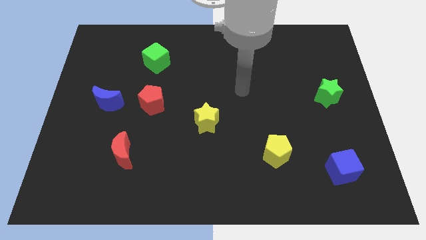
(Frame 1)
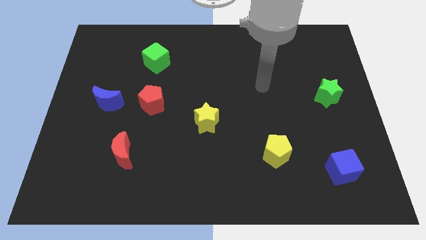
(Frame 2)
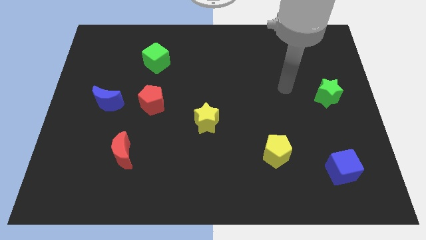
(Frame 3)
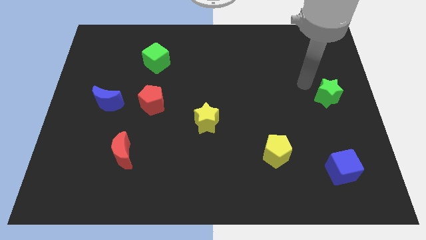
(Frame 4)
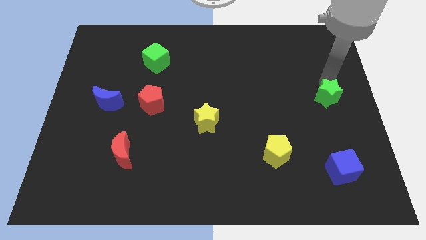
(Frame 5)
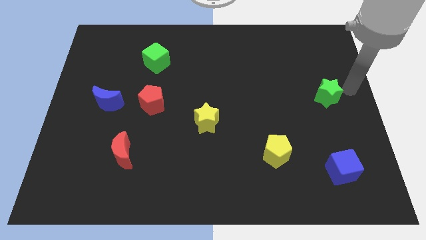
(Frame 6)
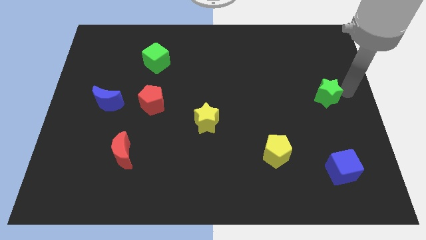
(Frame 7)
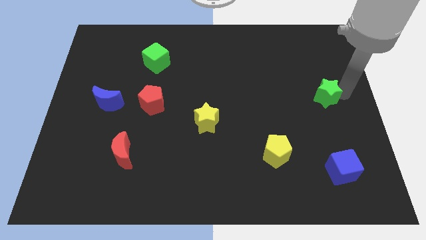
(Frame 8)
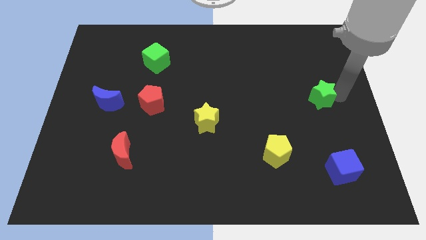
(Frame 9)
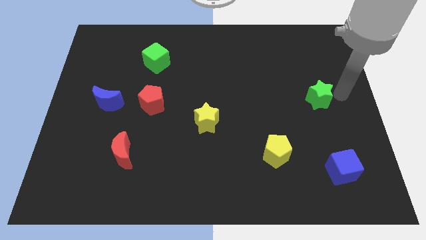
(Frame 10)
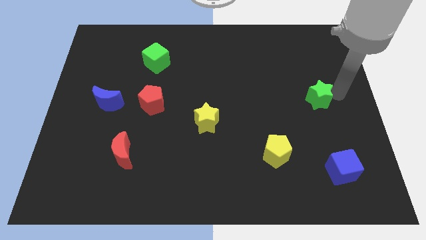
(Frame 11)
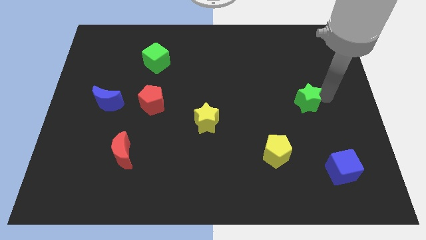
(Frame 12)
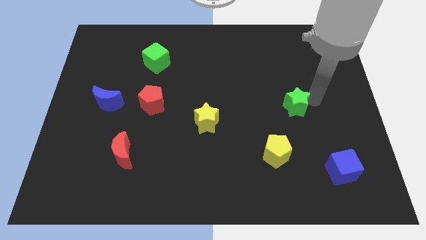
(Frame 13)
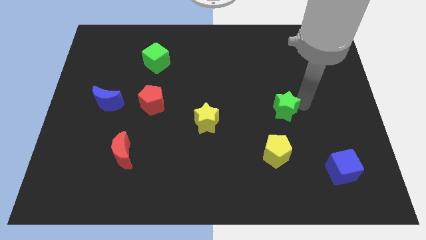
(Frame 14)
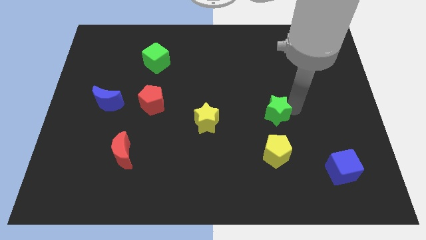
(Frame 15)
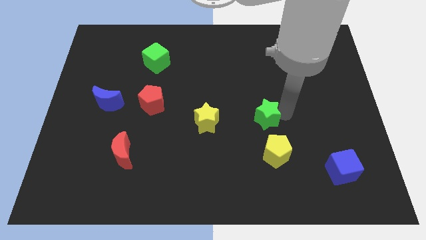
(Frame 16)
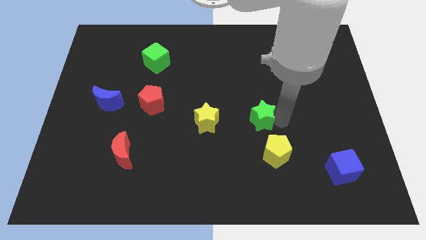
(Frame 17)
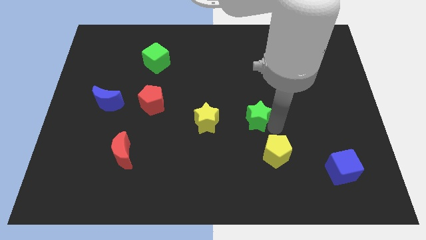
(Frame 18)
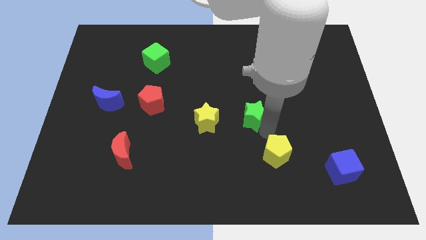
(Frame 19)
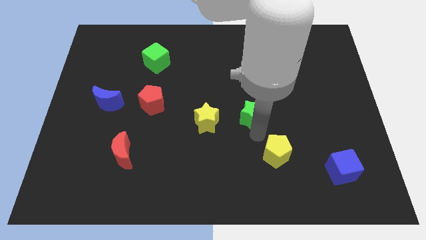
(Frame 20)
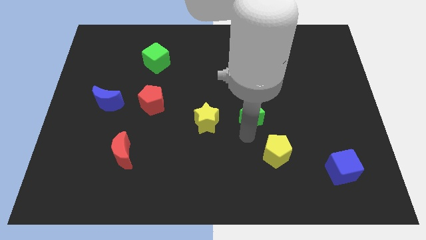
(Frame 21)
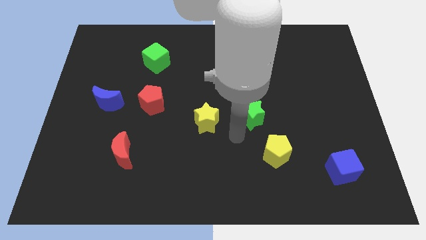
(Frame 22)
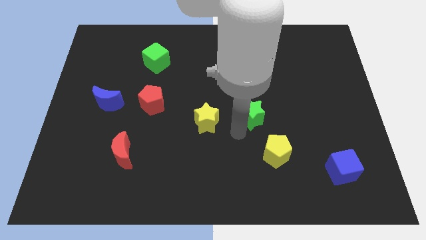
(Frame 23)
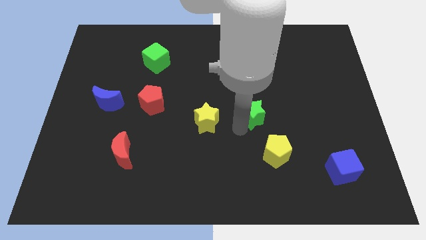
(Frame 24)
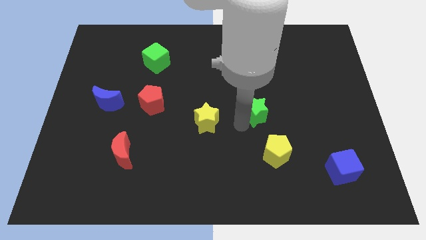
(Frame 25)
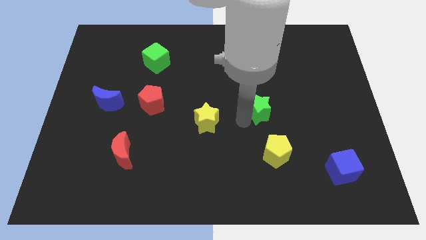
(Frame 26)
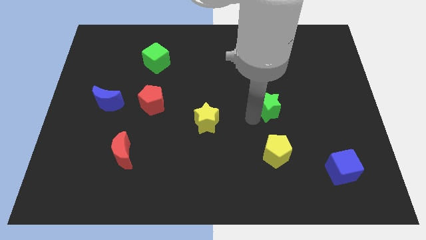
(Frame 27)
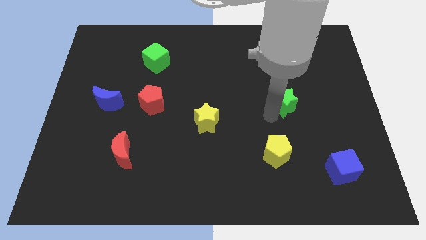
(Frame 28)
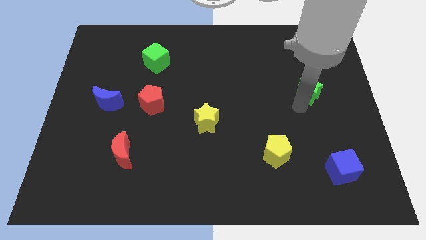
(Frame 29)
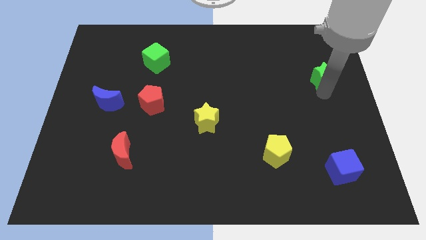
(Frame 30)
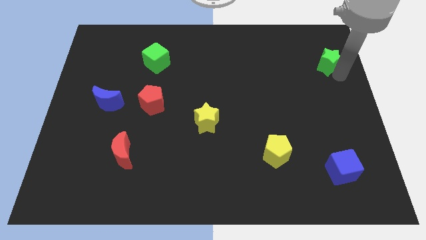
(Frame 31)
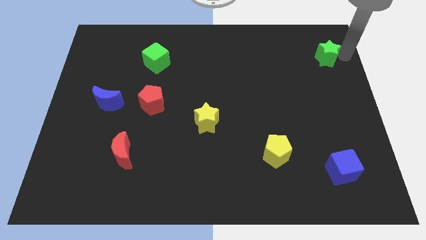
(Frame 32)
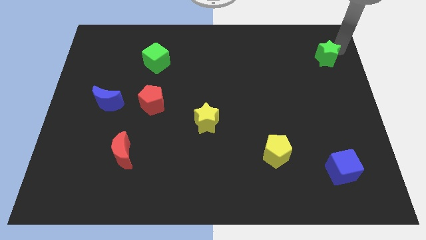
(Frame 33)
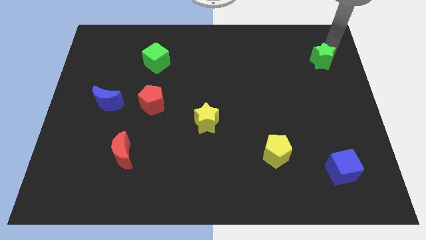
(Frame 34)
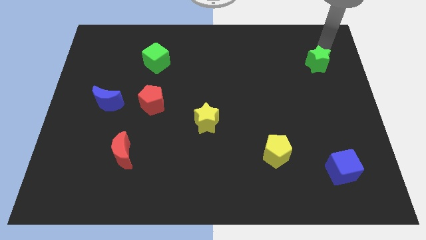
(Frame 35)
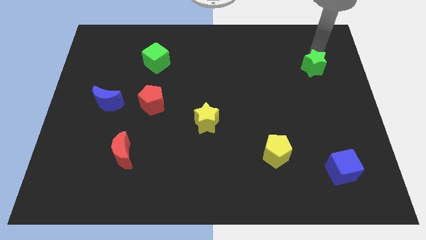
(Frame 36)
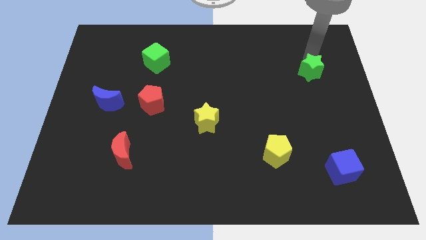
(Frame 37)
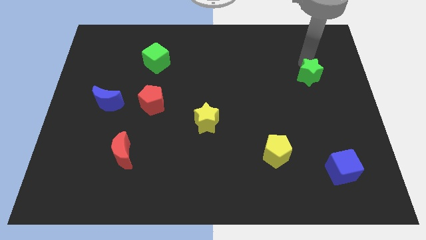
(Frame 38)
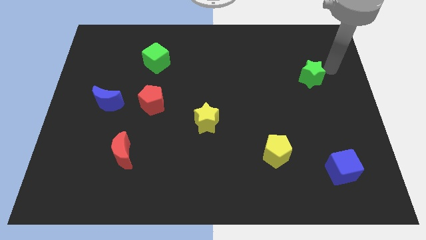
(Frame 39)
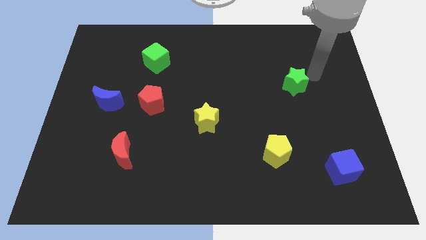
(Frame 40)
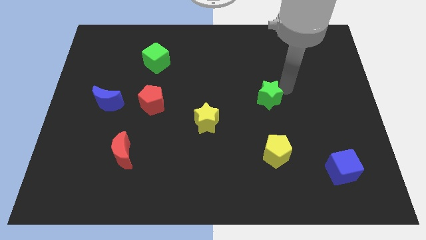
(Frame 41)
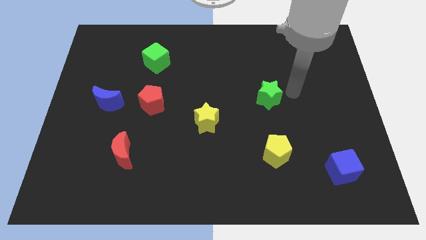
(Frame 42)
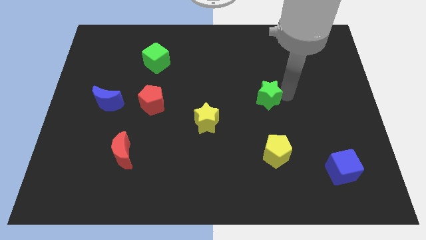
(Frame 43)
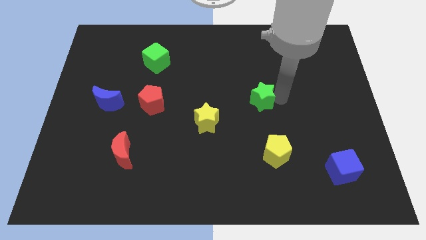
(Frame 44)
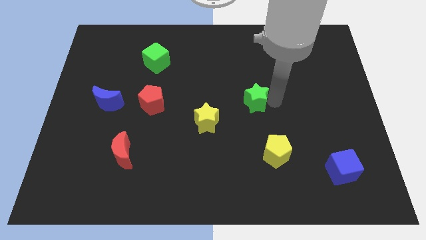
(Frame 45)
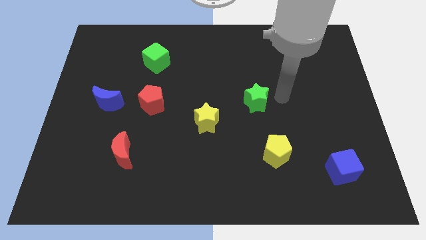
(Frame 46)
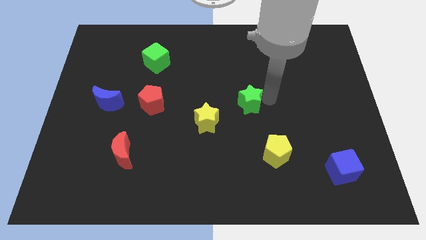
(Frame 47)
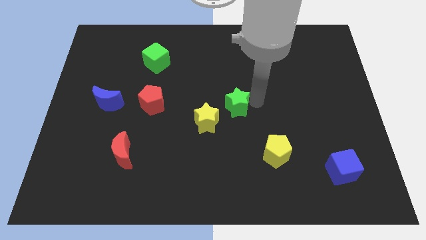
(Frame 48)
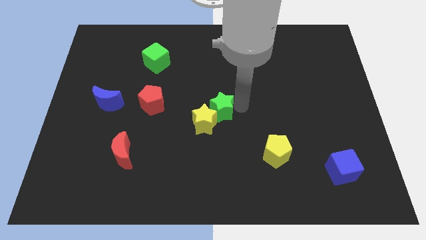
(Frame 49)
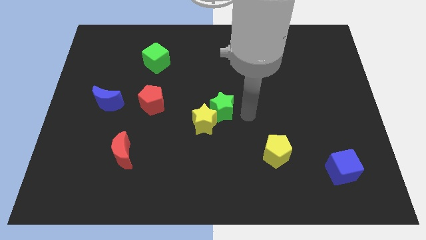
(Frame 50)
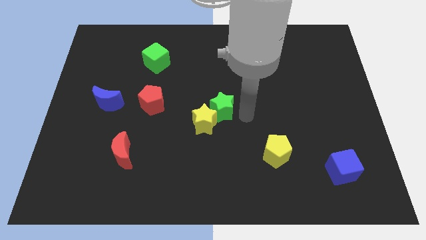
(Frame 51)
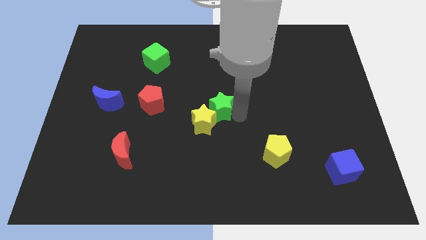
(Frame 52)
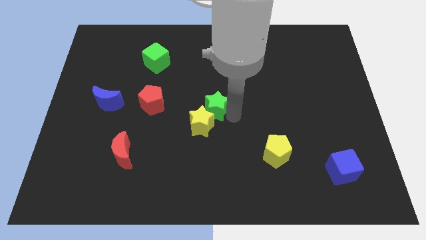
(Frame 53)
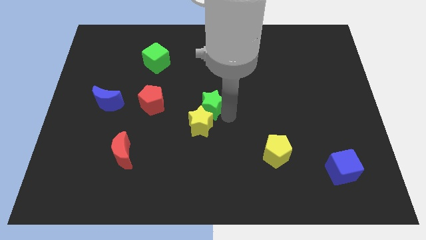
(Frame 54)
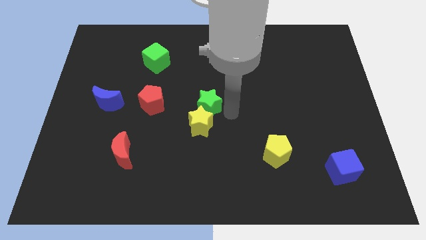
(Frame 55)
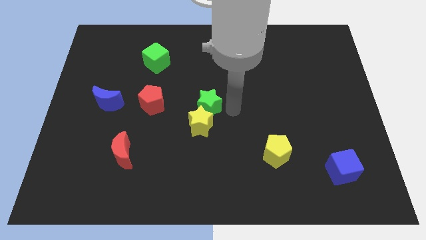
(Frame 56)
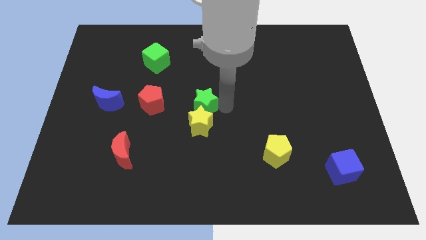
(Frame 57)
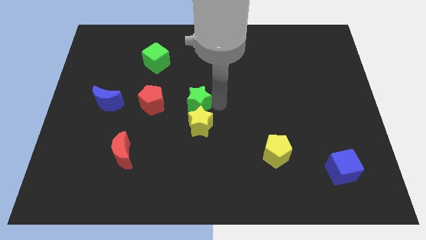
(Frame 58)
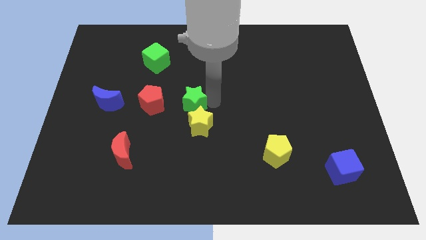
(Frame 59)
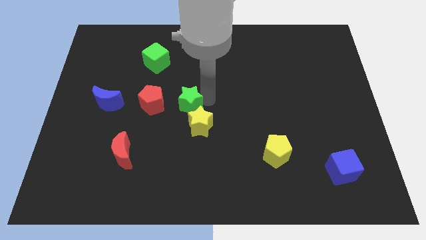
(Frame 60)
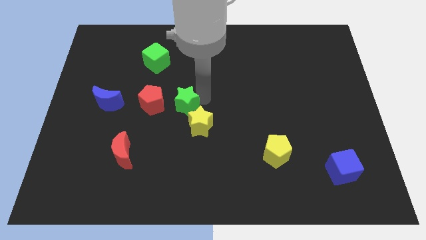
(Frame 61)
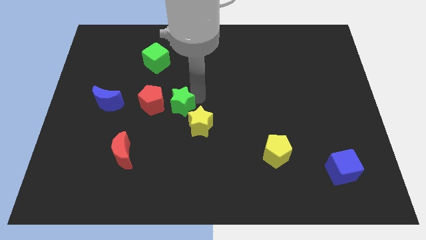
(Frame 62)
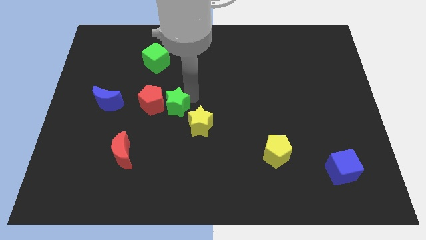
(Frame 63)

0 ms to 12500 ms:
move the green star close to the red pentagon

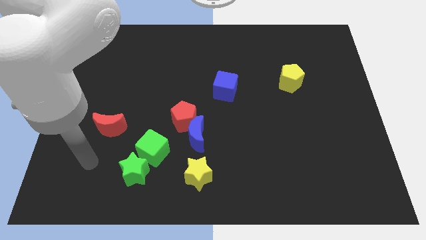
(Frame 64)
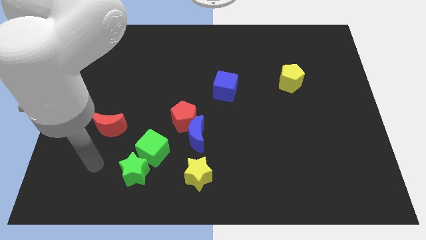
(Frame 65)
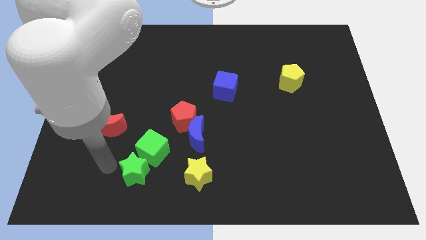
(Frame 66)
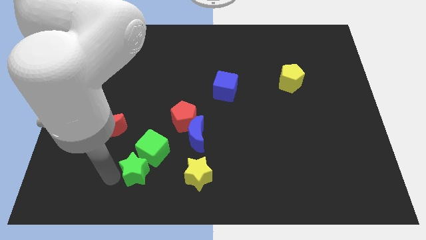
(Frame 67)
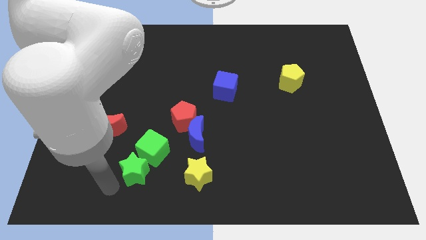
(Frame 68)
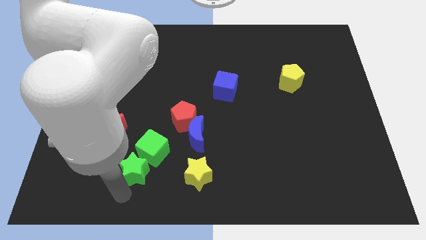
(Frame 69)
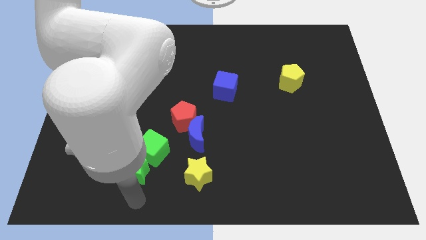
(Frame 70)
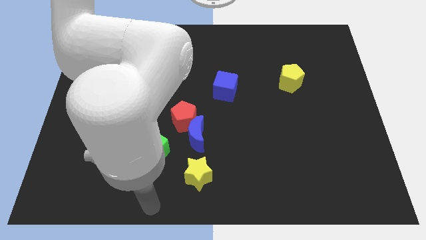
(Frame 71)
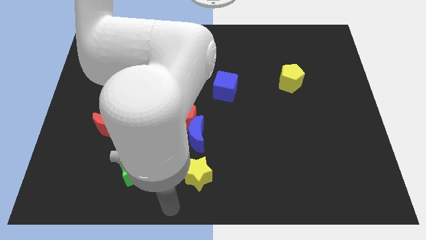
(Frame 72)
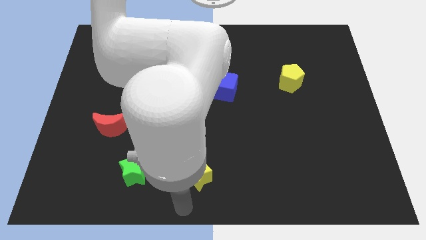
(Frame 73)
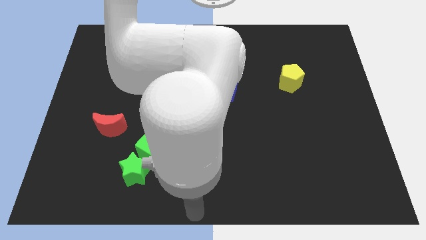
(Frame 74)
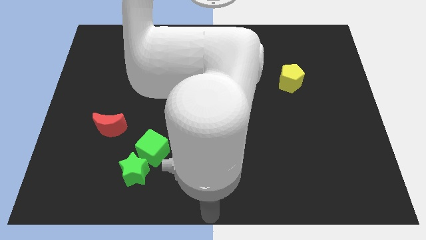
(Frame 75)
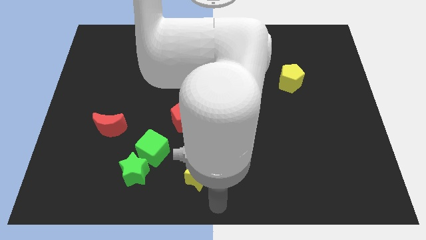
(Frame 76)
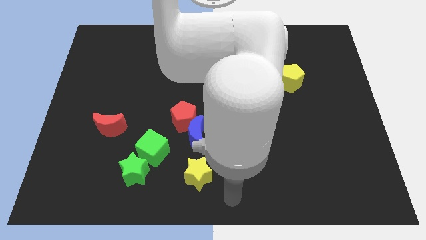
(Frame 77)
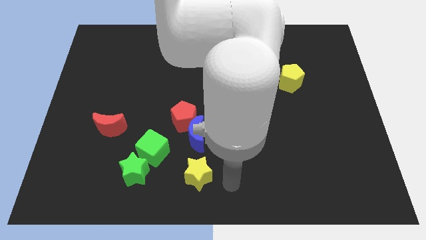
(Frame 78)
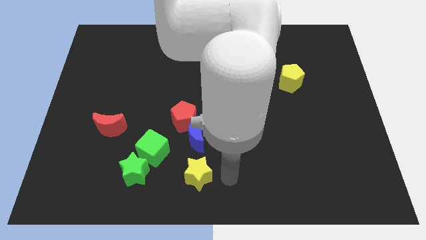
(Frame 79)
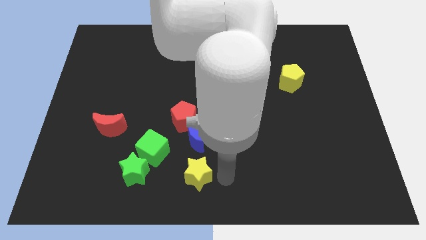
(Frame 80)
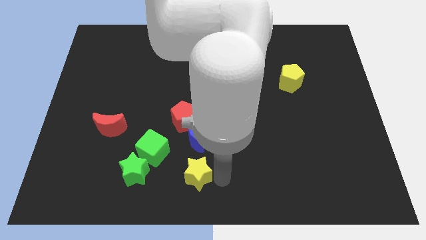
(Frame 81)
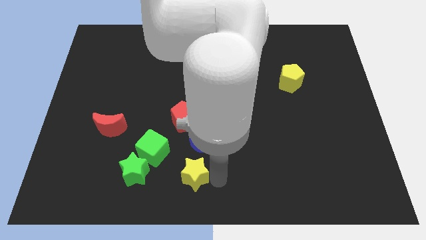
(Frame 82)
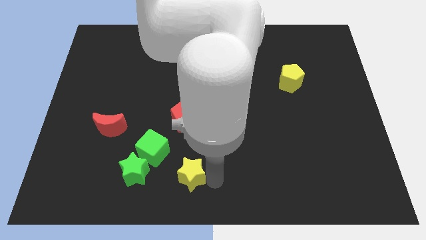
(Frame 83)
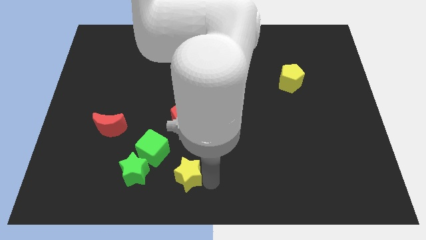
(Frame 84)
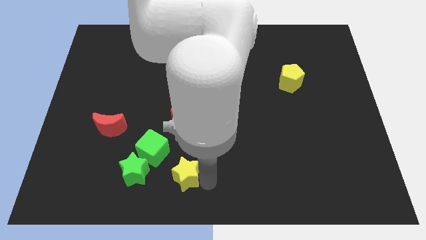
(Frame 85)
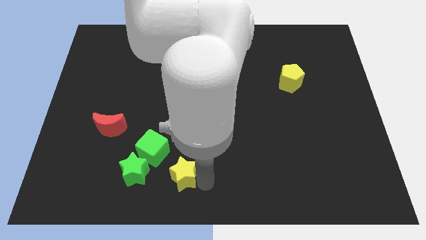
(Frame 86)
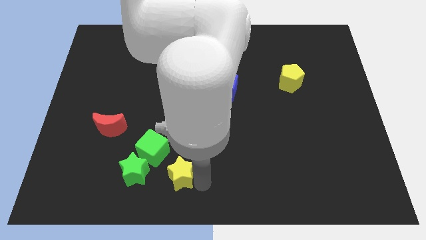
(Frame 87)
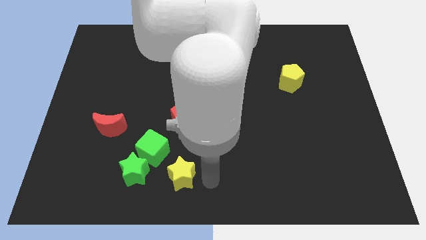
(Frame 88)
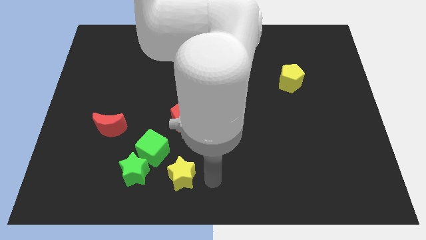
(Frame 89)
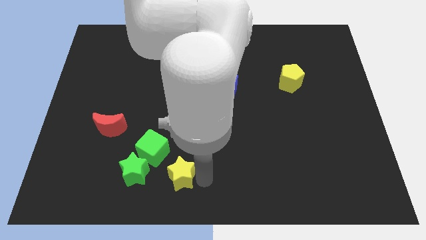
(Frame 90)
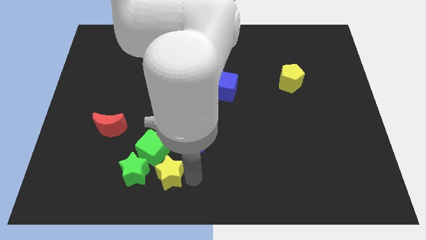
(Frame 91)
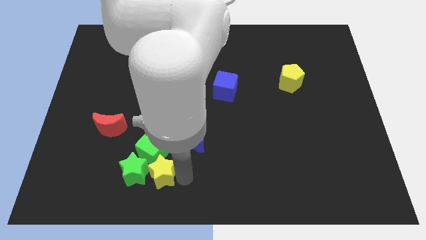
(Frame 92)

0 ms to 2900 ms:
put the yellow star to the green star
